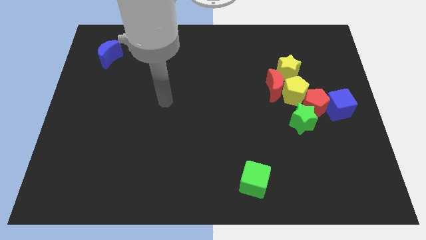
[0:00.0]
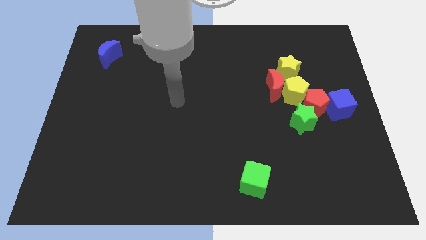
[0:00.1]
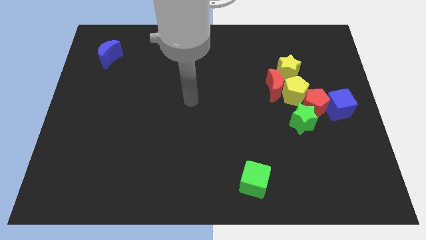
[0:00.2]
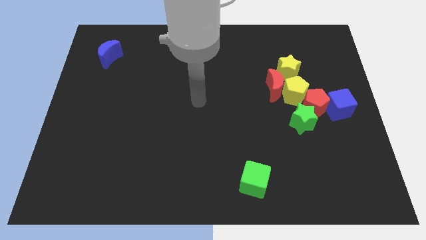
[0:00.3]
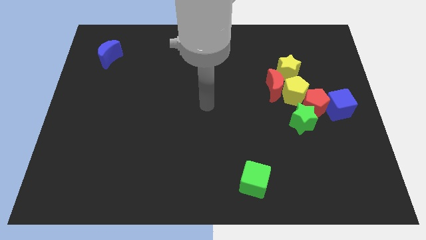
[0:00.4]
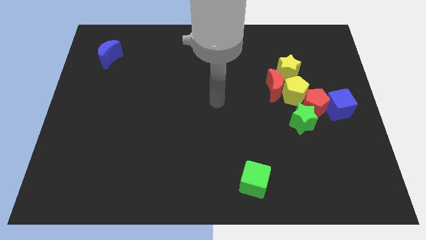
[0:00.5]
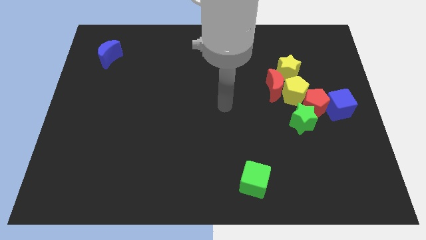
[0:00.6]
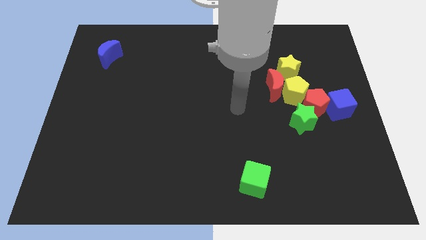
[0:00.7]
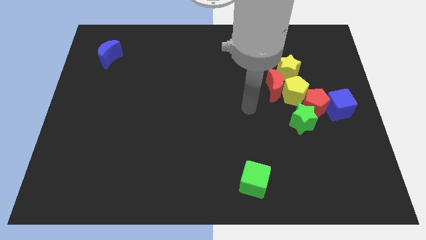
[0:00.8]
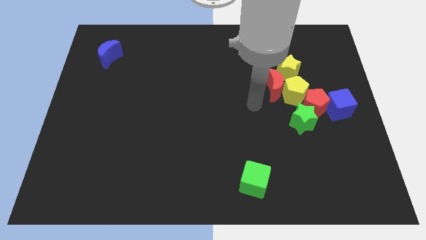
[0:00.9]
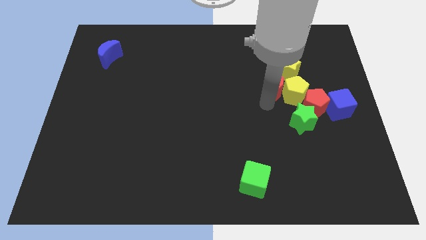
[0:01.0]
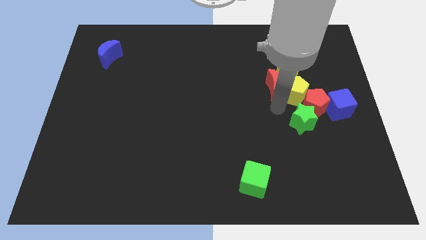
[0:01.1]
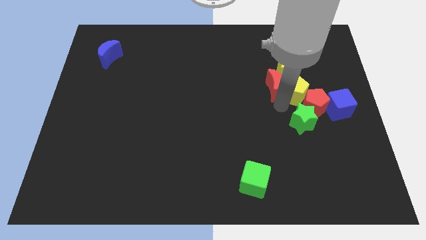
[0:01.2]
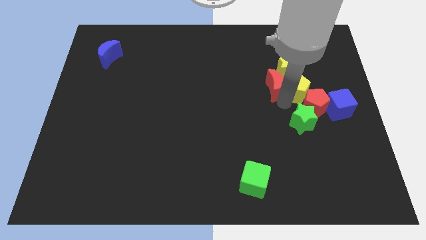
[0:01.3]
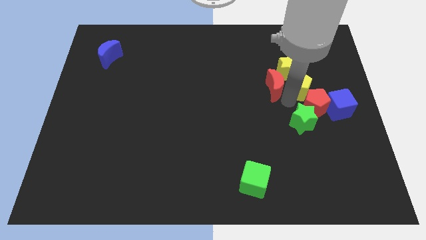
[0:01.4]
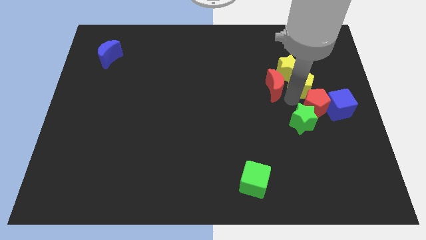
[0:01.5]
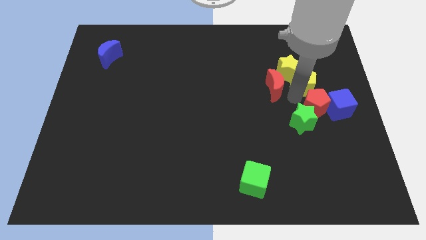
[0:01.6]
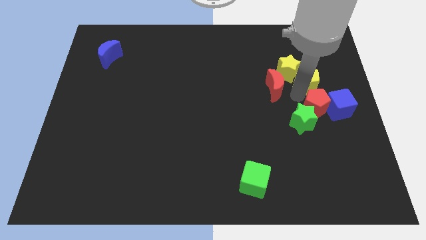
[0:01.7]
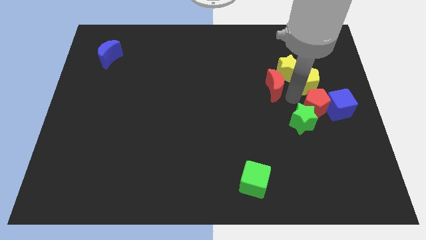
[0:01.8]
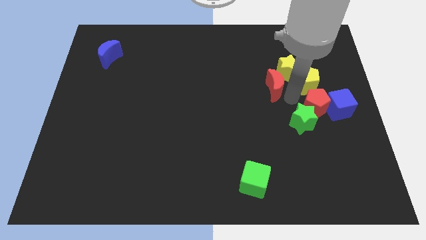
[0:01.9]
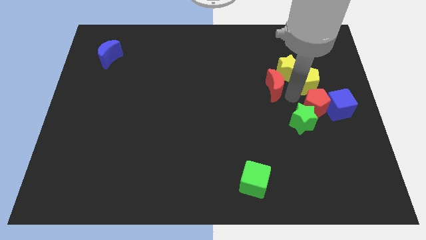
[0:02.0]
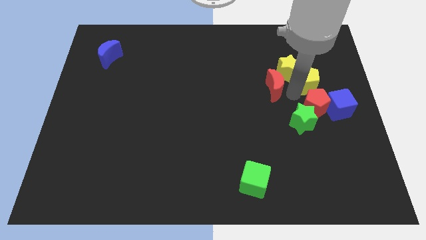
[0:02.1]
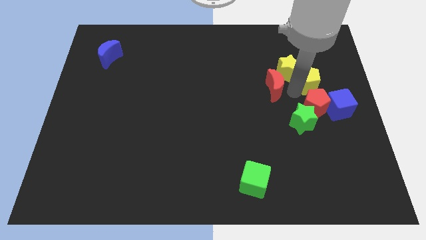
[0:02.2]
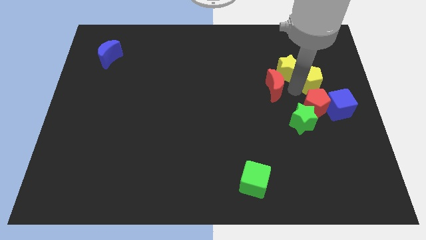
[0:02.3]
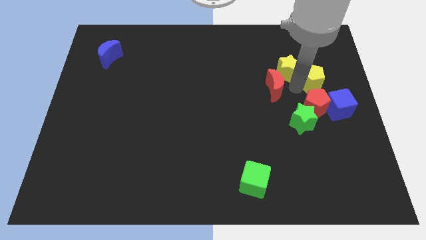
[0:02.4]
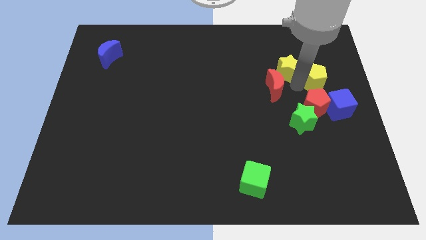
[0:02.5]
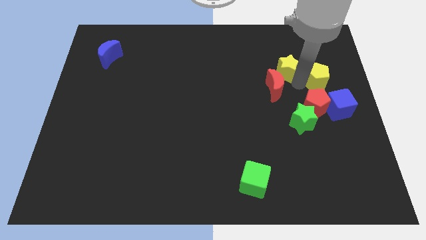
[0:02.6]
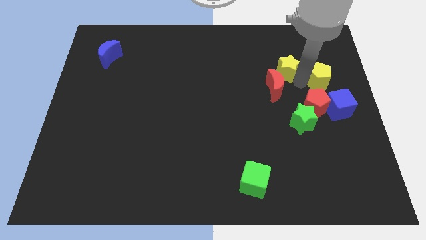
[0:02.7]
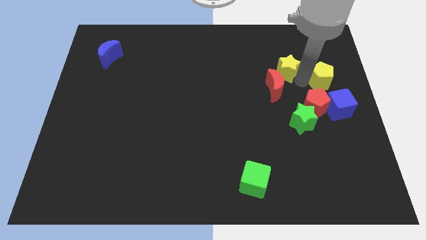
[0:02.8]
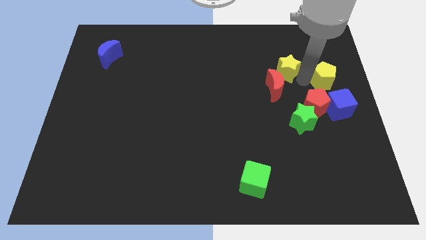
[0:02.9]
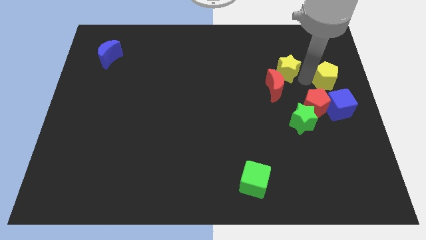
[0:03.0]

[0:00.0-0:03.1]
move the yellow pentagon away from the clump

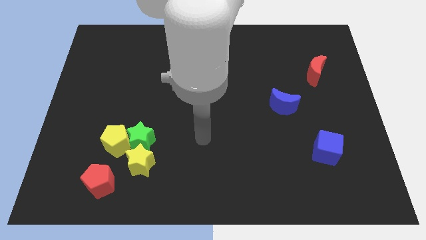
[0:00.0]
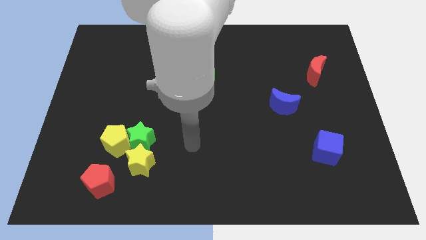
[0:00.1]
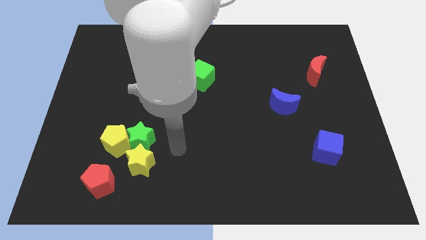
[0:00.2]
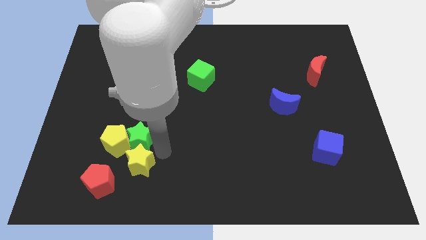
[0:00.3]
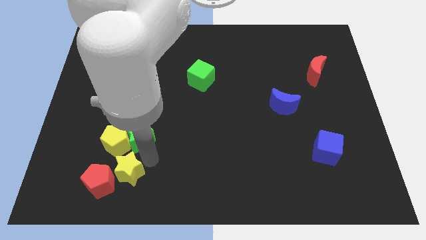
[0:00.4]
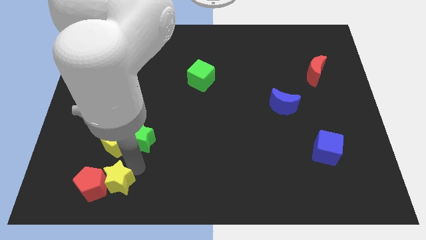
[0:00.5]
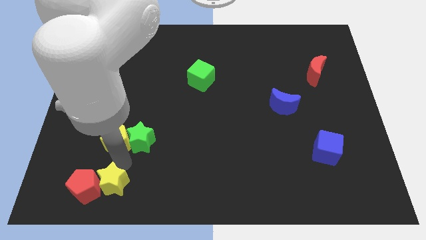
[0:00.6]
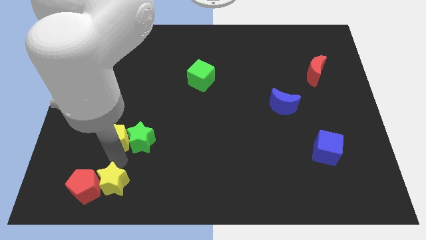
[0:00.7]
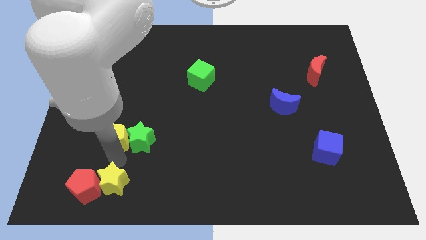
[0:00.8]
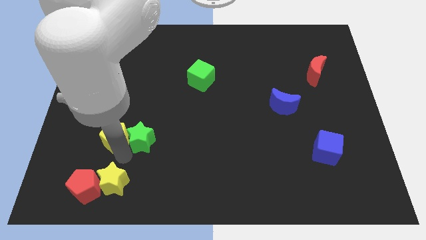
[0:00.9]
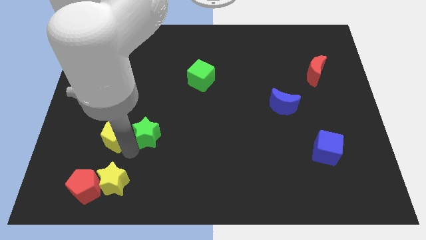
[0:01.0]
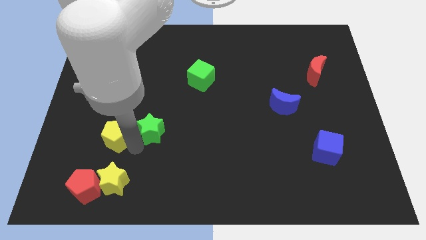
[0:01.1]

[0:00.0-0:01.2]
separate the green star from the yellow pentagon and yellow star

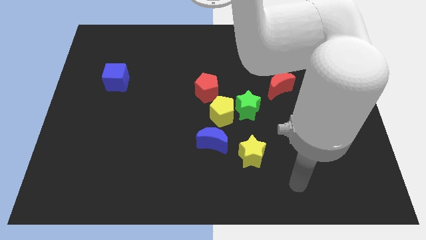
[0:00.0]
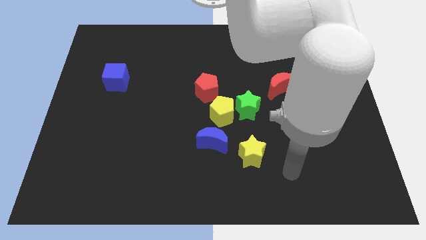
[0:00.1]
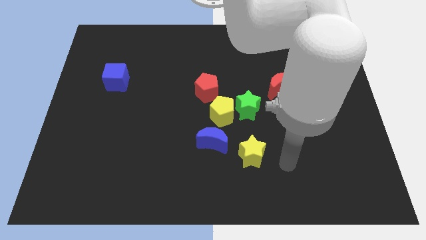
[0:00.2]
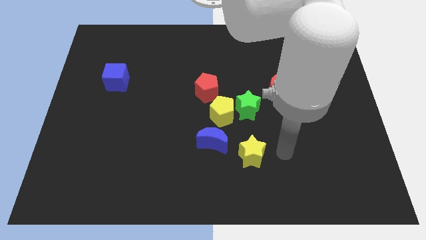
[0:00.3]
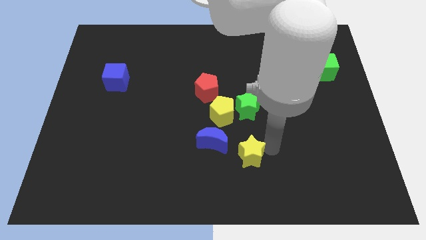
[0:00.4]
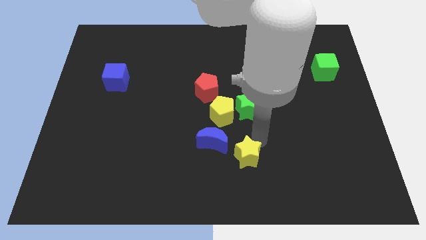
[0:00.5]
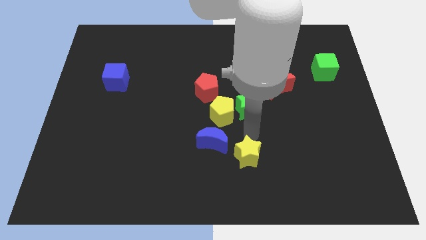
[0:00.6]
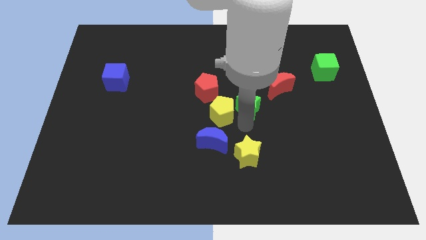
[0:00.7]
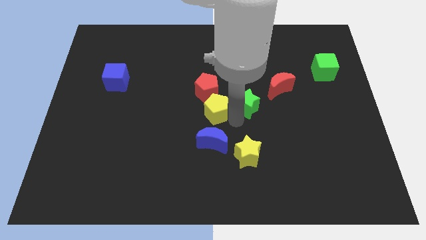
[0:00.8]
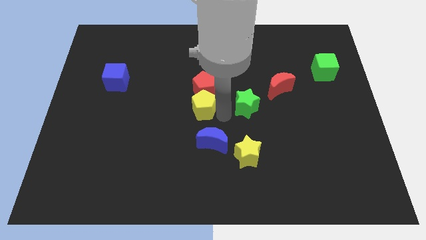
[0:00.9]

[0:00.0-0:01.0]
pull the green star apart from the yellow pentagon

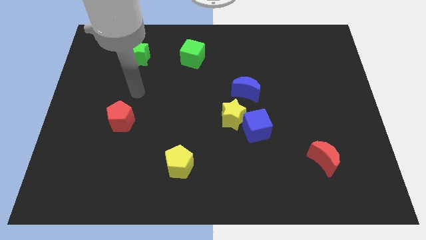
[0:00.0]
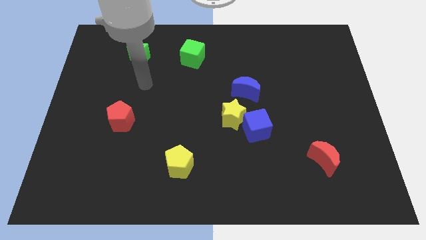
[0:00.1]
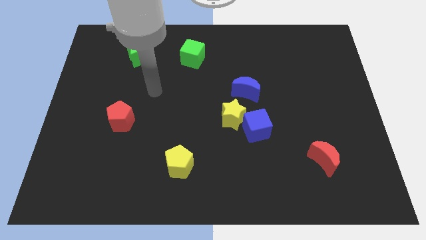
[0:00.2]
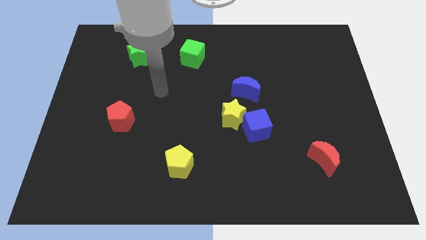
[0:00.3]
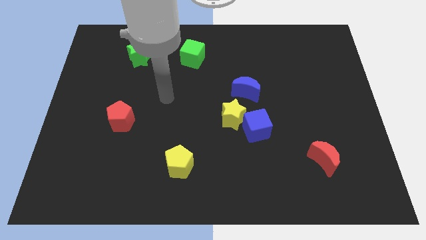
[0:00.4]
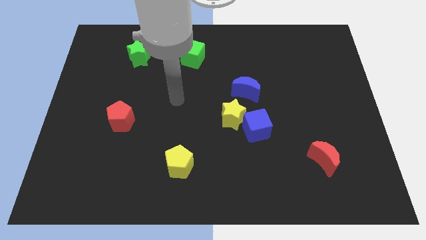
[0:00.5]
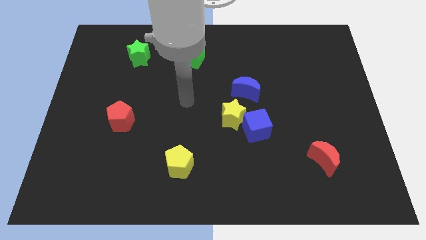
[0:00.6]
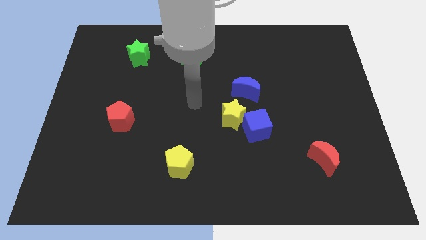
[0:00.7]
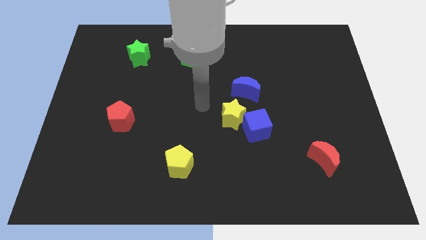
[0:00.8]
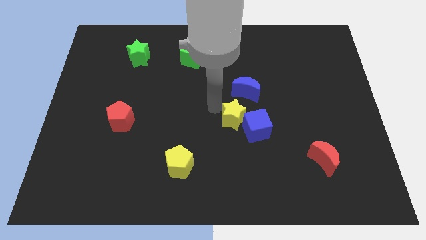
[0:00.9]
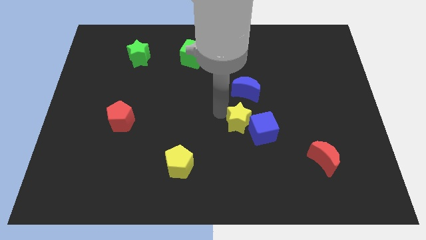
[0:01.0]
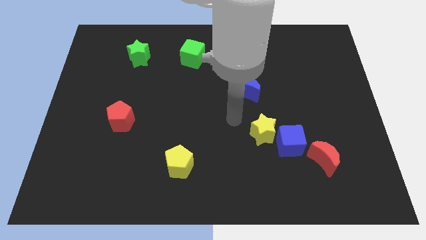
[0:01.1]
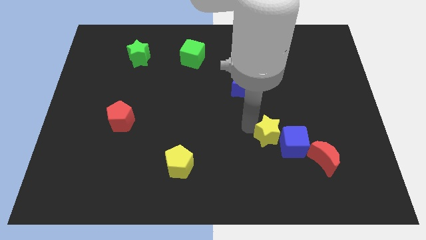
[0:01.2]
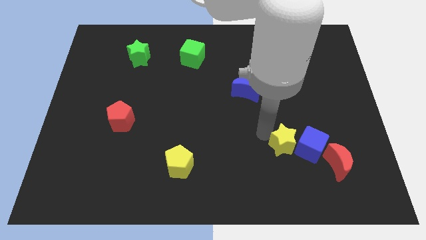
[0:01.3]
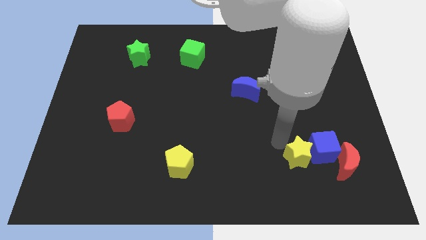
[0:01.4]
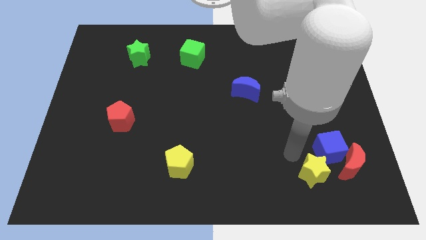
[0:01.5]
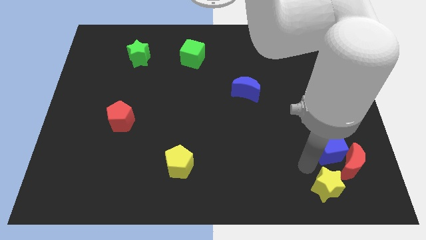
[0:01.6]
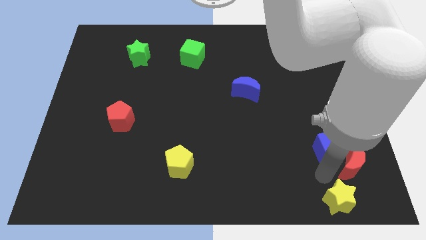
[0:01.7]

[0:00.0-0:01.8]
pull the blue cube apart from the yellow star

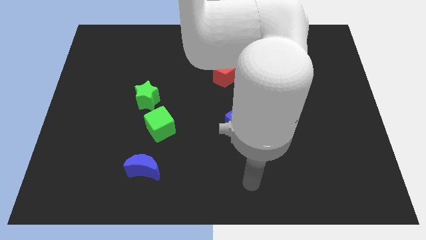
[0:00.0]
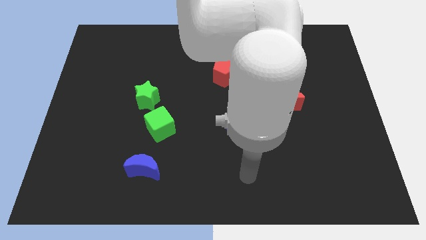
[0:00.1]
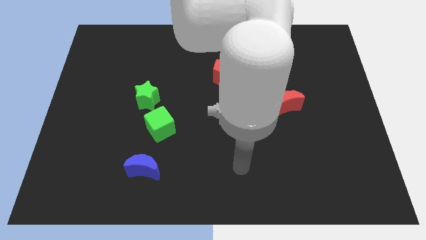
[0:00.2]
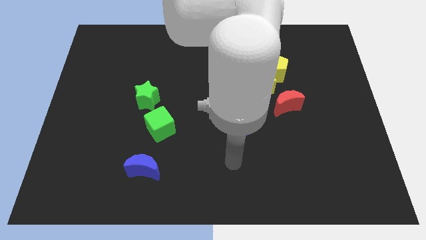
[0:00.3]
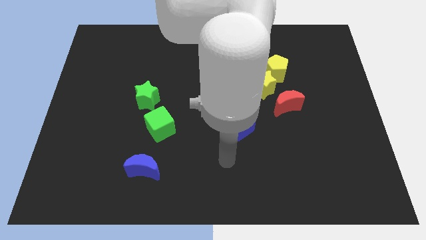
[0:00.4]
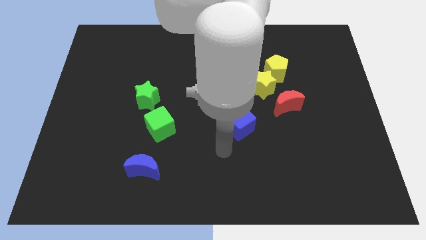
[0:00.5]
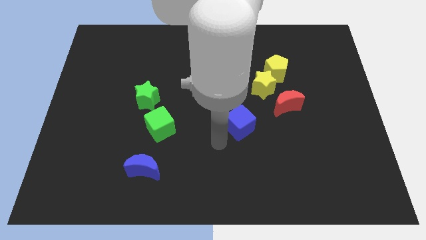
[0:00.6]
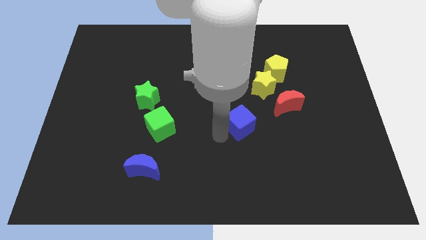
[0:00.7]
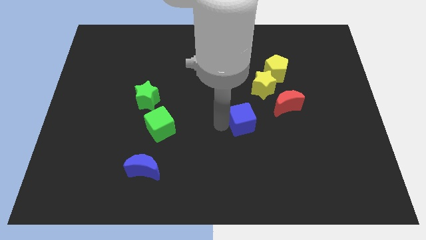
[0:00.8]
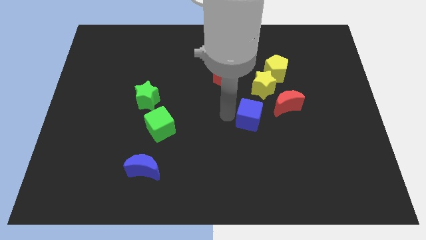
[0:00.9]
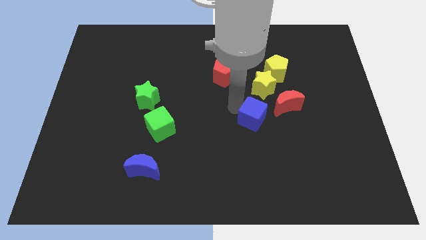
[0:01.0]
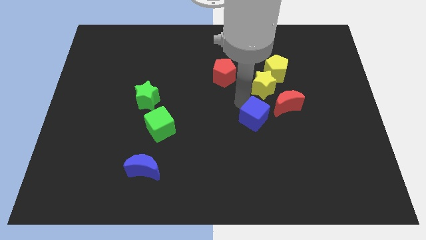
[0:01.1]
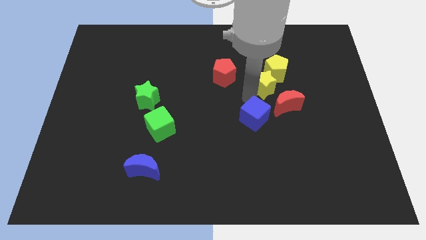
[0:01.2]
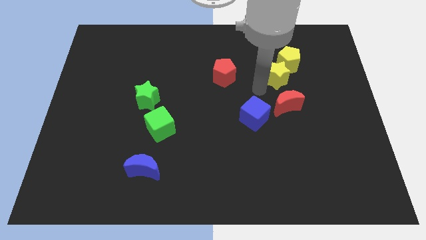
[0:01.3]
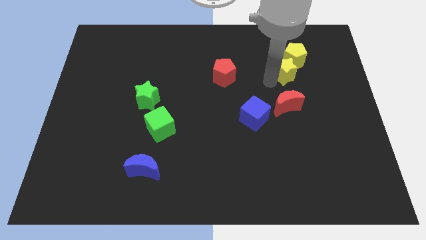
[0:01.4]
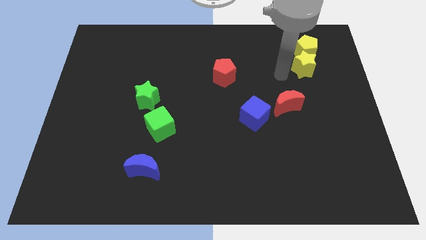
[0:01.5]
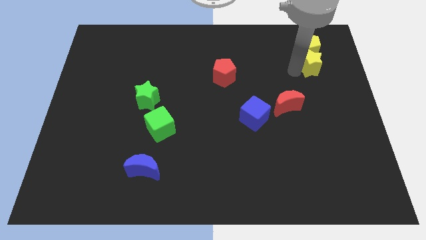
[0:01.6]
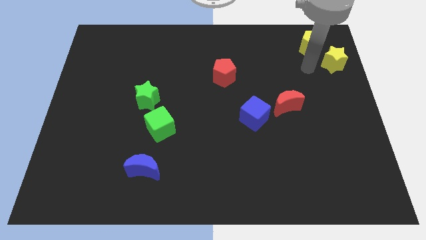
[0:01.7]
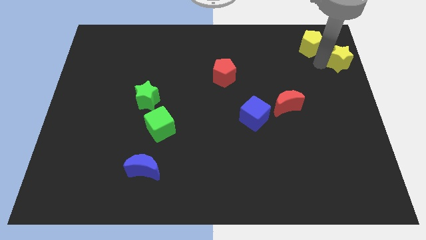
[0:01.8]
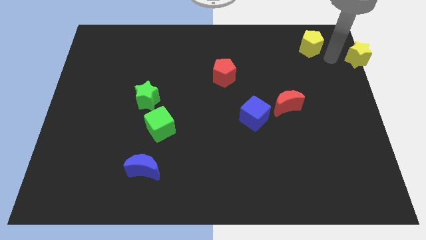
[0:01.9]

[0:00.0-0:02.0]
pull the yellow pentagon apart from the yellow star
